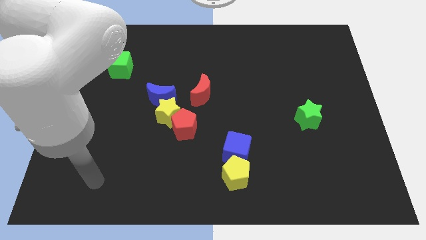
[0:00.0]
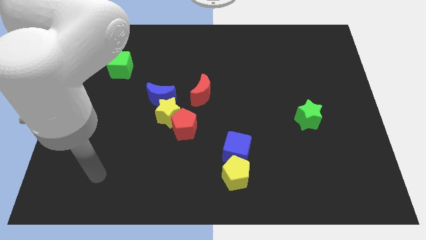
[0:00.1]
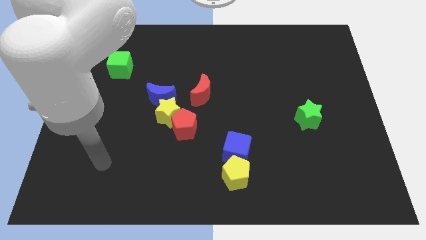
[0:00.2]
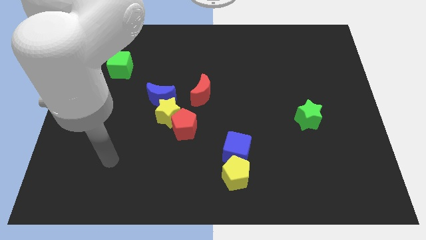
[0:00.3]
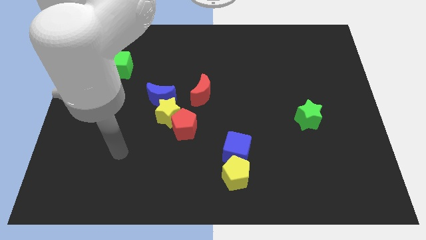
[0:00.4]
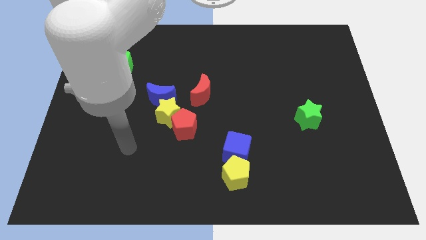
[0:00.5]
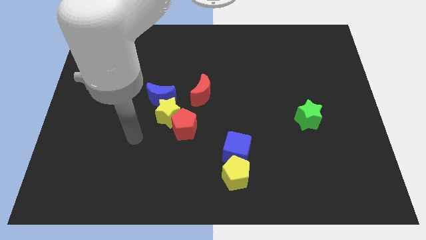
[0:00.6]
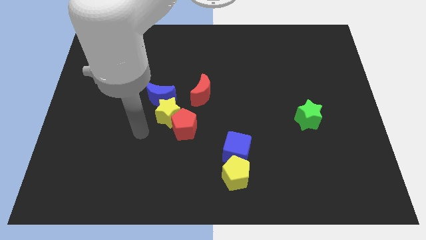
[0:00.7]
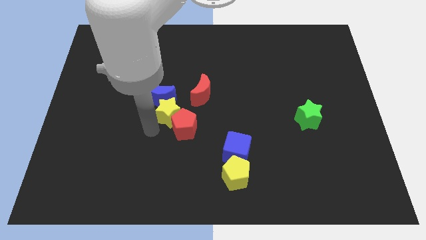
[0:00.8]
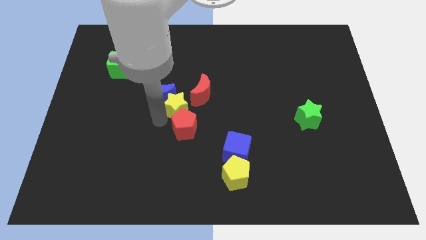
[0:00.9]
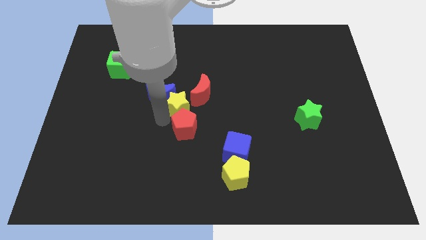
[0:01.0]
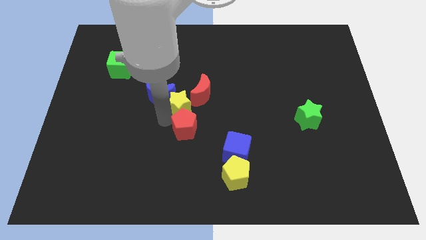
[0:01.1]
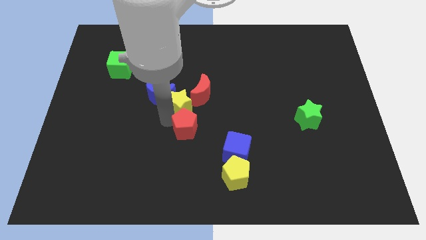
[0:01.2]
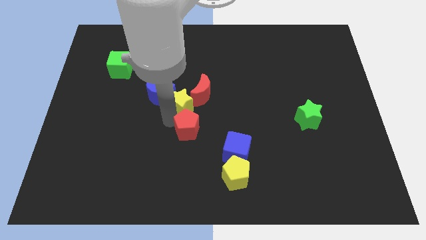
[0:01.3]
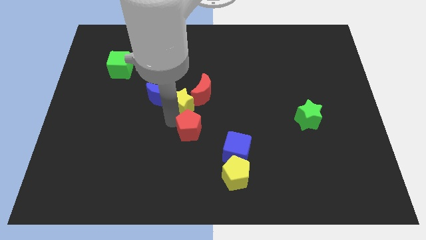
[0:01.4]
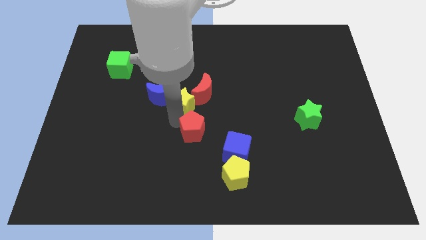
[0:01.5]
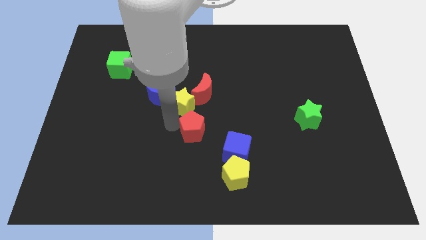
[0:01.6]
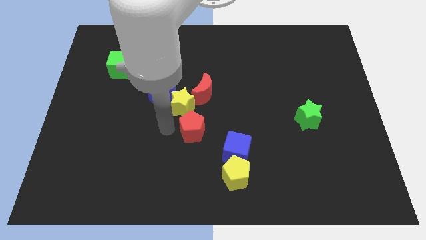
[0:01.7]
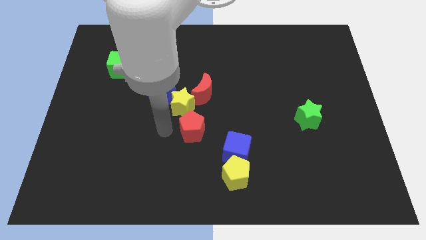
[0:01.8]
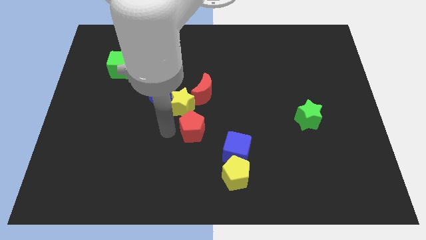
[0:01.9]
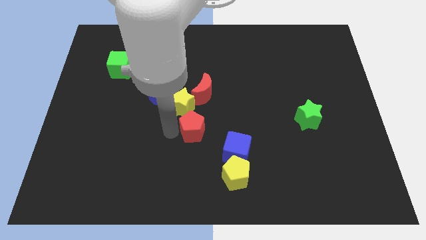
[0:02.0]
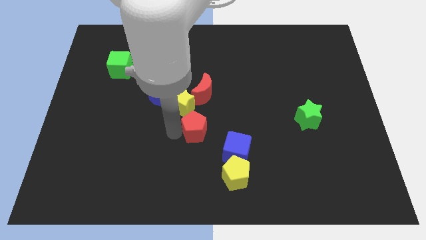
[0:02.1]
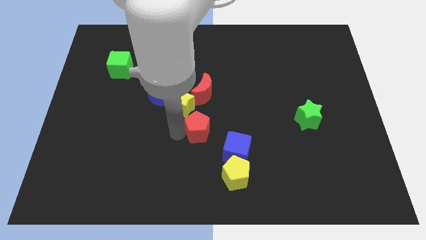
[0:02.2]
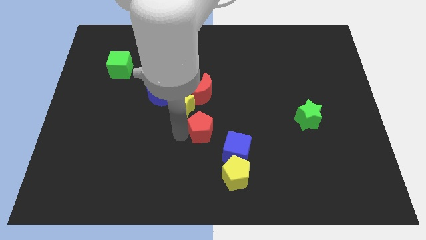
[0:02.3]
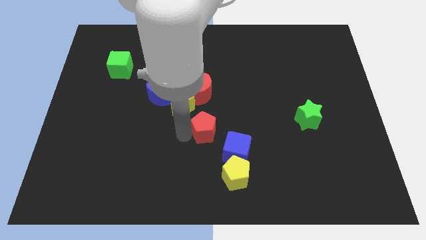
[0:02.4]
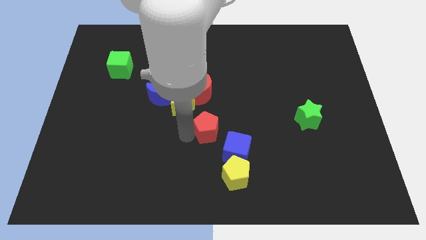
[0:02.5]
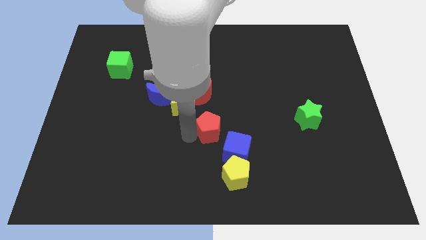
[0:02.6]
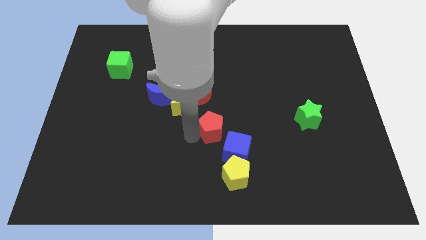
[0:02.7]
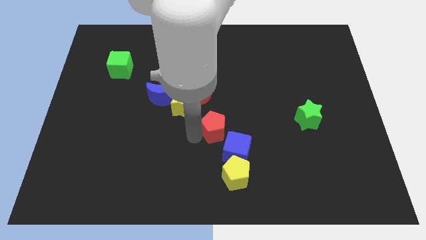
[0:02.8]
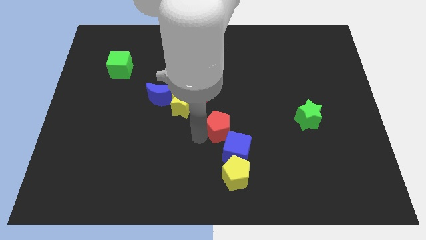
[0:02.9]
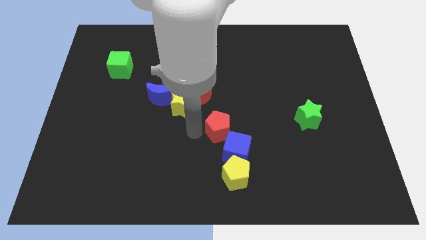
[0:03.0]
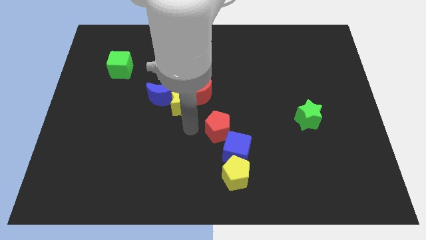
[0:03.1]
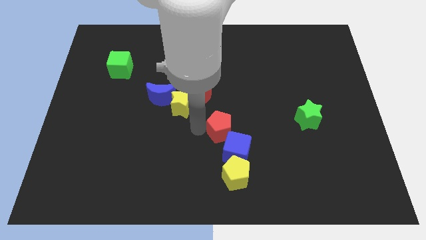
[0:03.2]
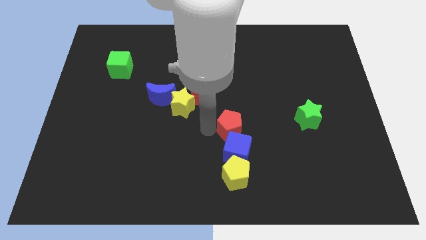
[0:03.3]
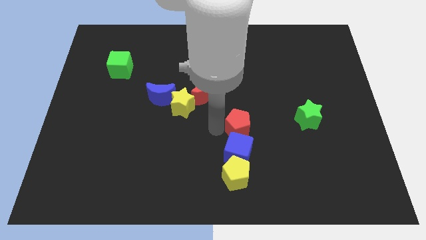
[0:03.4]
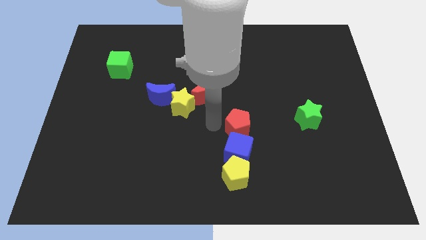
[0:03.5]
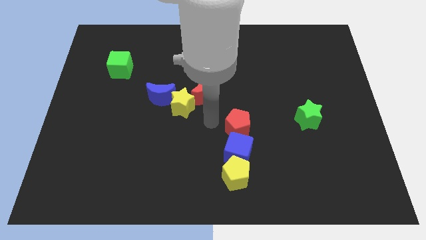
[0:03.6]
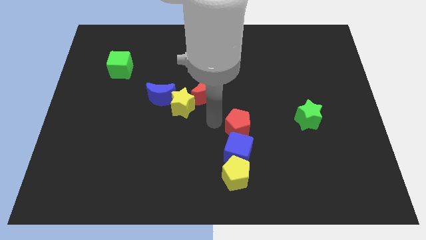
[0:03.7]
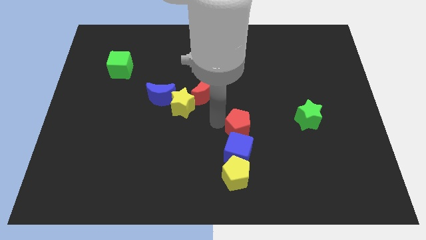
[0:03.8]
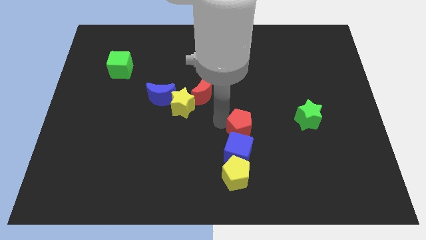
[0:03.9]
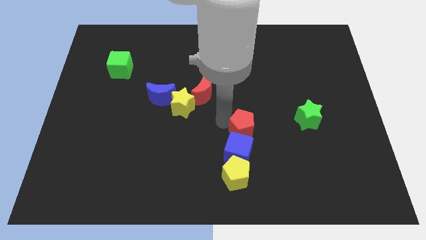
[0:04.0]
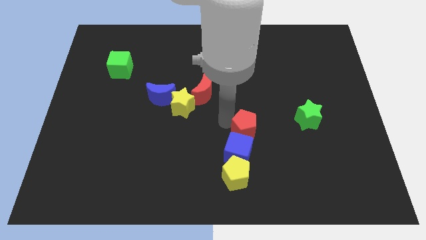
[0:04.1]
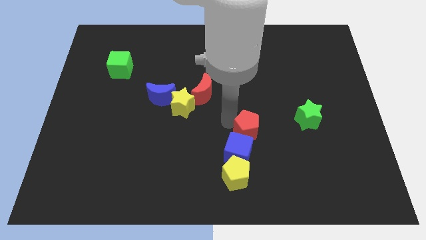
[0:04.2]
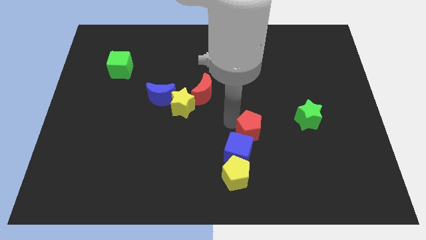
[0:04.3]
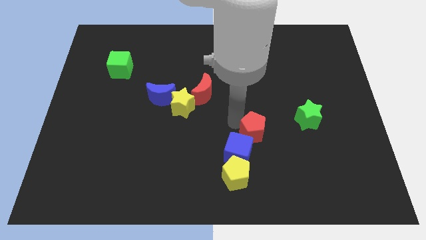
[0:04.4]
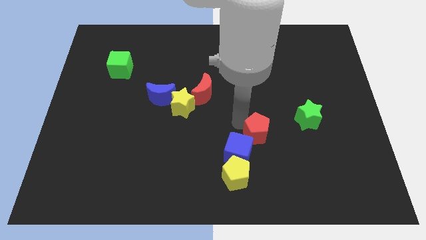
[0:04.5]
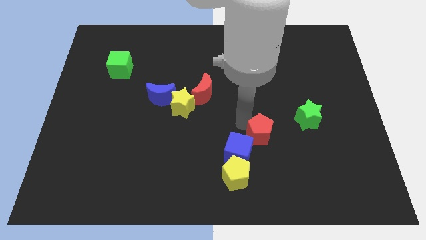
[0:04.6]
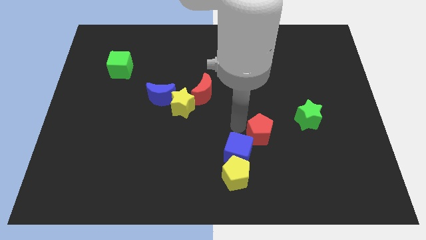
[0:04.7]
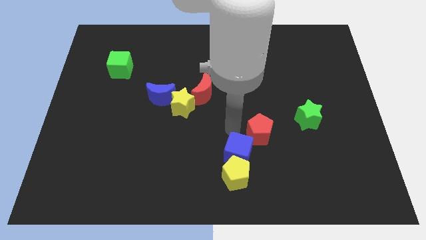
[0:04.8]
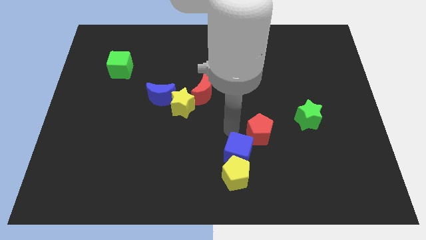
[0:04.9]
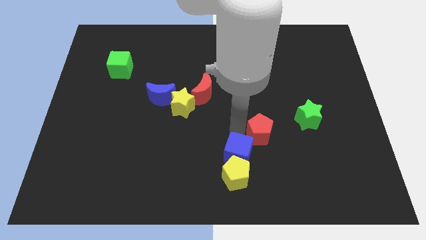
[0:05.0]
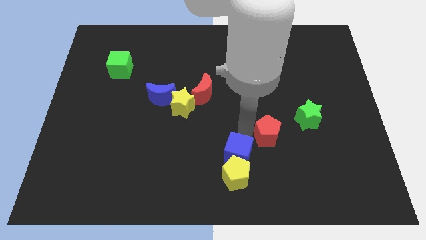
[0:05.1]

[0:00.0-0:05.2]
slide the red pentagon to the bottom left side of the green star

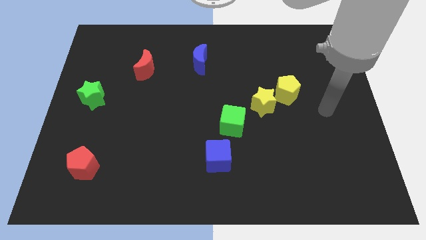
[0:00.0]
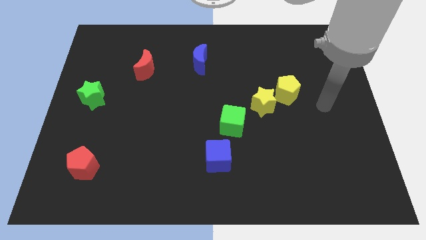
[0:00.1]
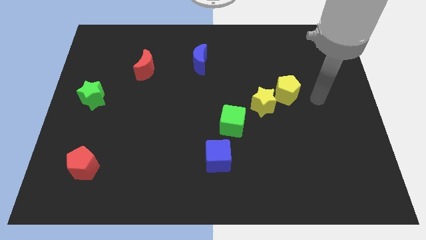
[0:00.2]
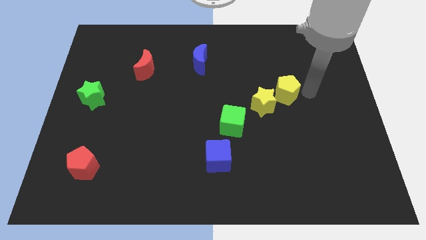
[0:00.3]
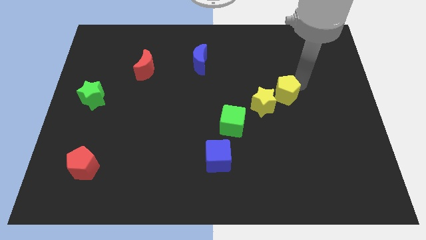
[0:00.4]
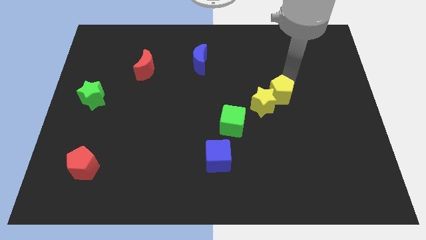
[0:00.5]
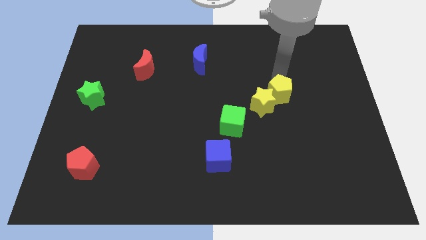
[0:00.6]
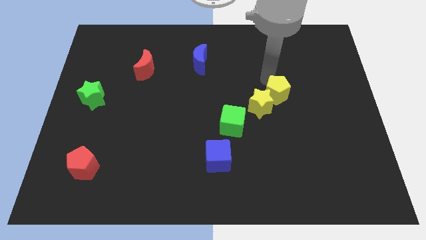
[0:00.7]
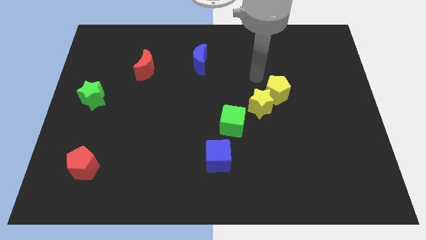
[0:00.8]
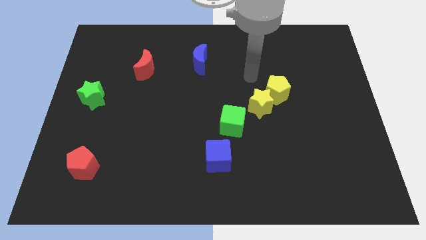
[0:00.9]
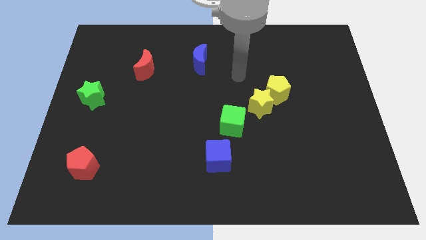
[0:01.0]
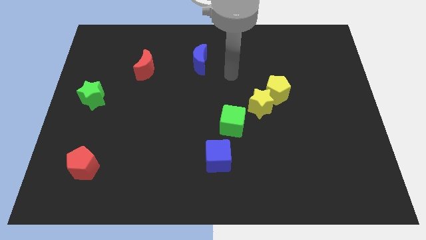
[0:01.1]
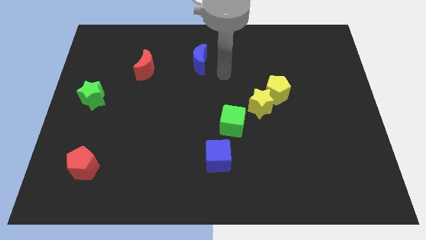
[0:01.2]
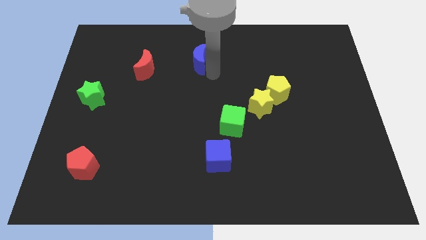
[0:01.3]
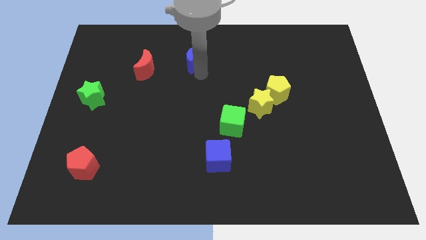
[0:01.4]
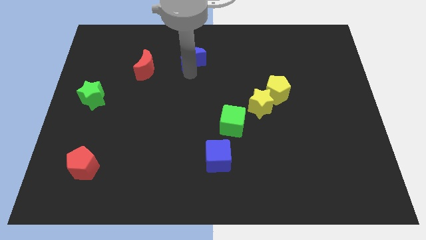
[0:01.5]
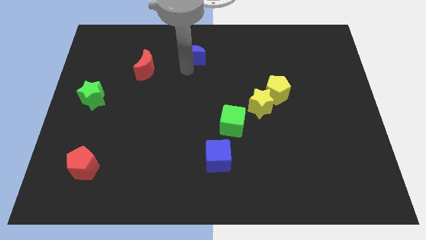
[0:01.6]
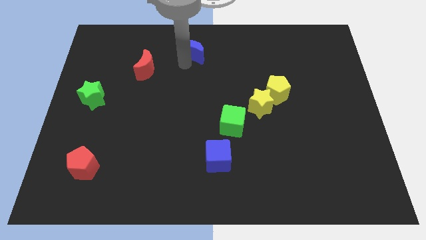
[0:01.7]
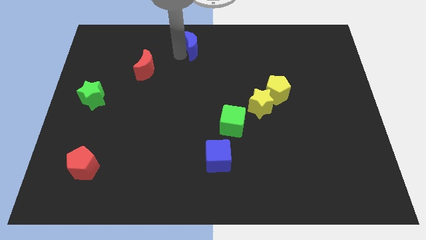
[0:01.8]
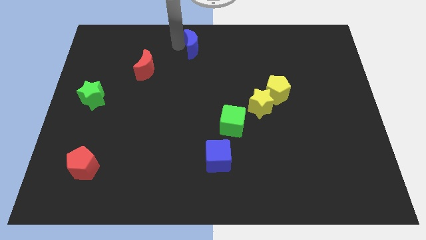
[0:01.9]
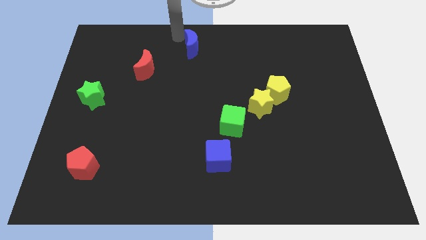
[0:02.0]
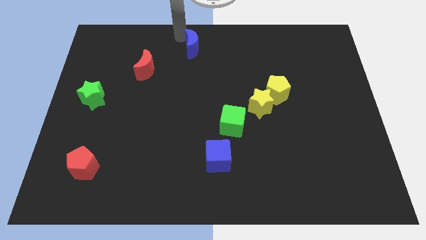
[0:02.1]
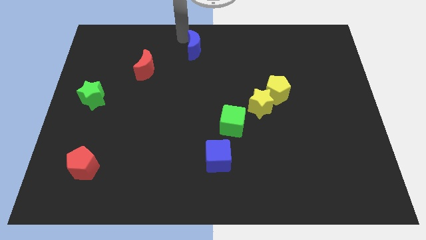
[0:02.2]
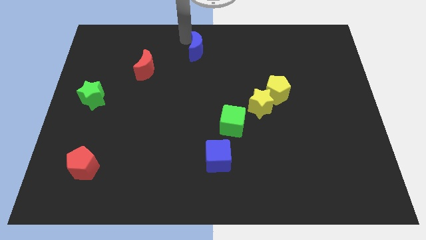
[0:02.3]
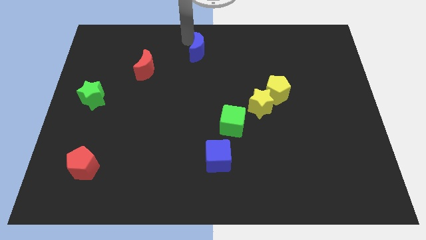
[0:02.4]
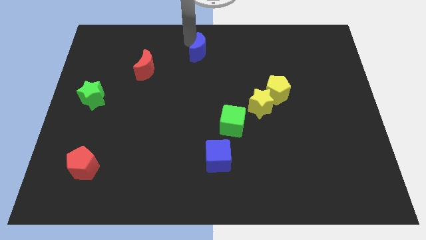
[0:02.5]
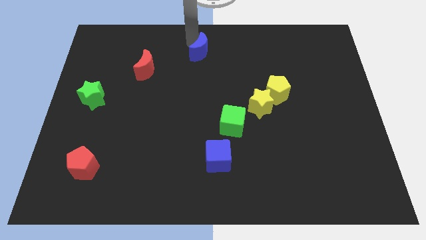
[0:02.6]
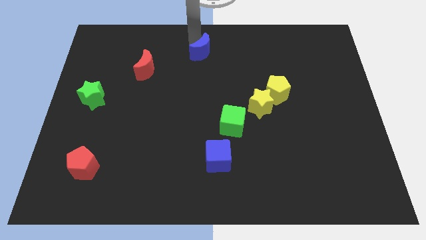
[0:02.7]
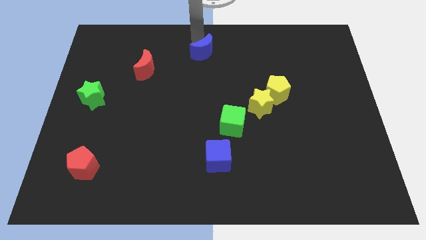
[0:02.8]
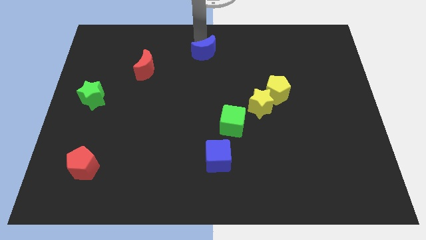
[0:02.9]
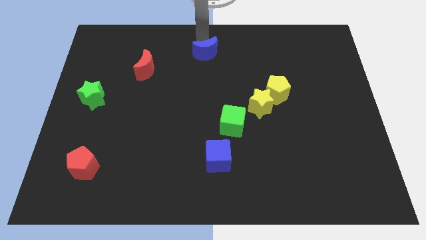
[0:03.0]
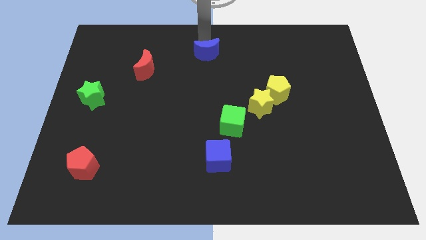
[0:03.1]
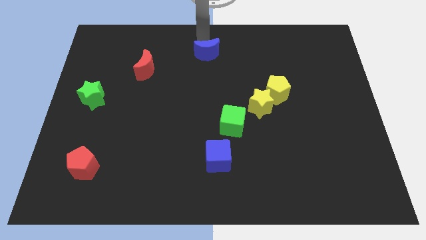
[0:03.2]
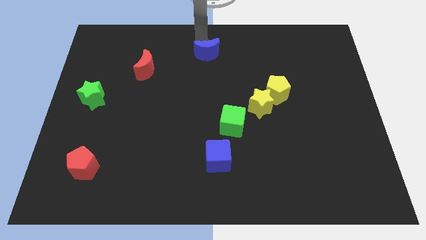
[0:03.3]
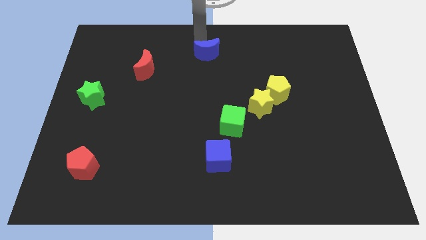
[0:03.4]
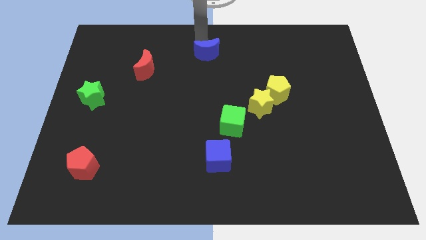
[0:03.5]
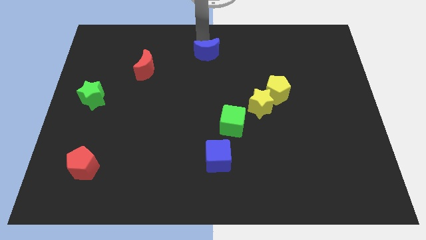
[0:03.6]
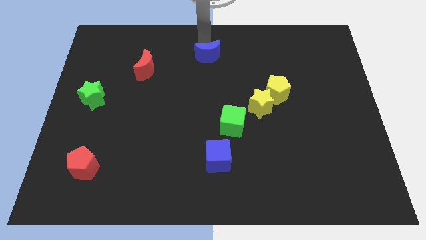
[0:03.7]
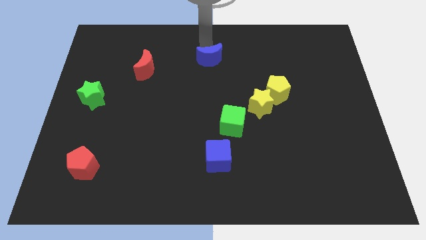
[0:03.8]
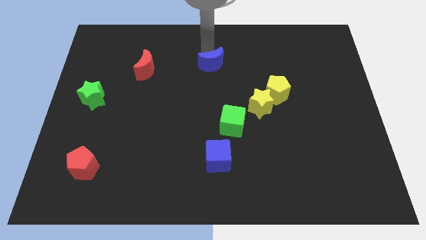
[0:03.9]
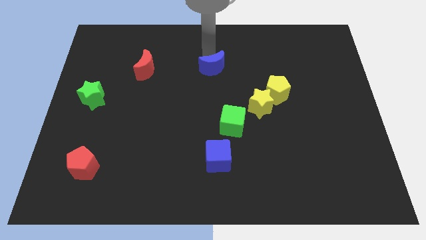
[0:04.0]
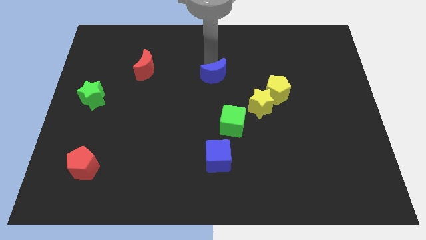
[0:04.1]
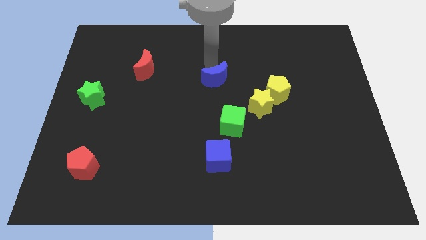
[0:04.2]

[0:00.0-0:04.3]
push the blue moon above the green cube
